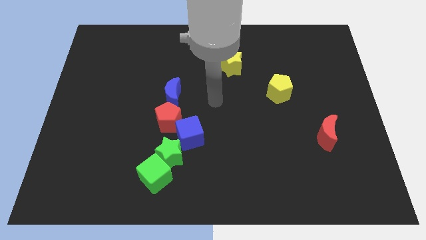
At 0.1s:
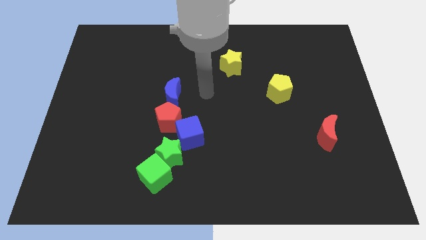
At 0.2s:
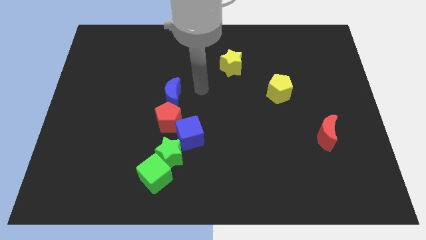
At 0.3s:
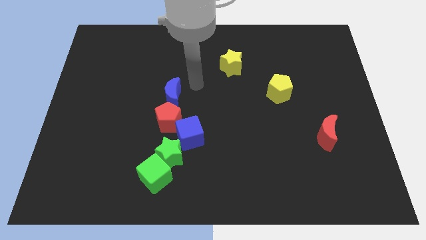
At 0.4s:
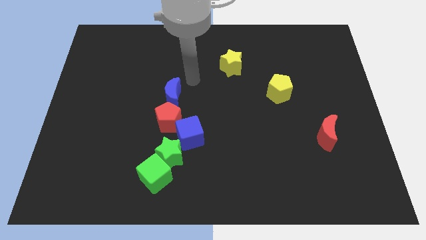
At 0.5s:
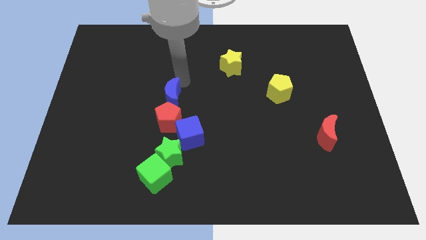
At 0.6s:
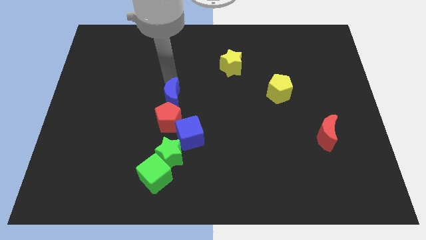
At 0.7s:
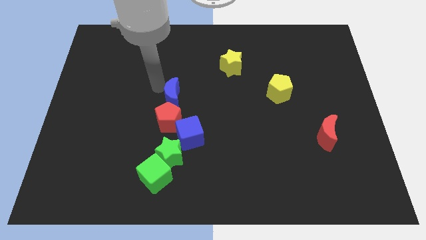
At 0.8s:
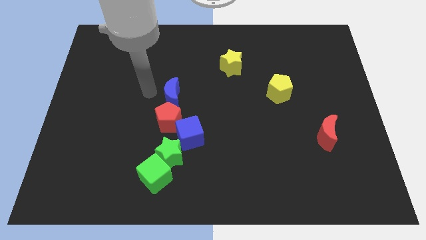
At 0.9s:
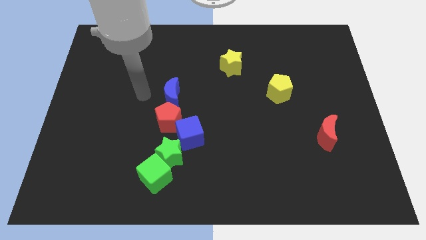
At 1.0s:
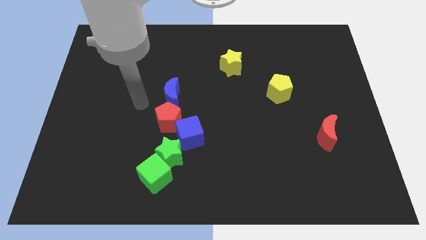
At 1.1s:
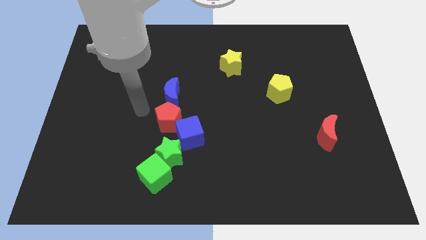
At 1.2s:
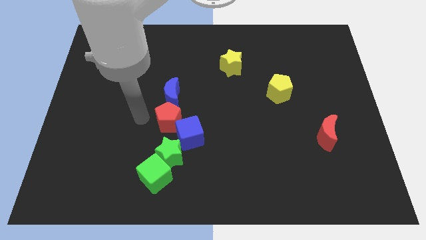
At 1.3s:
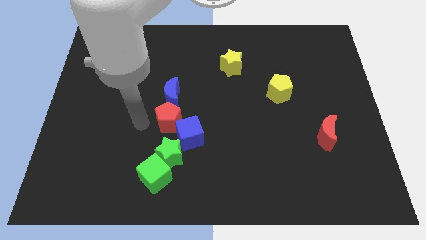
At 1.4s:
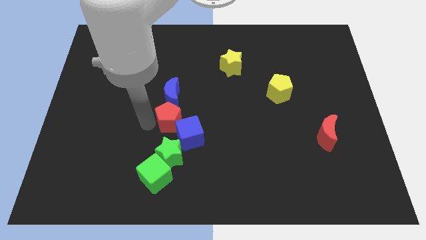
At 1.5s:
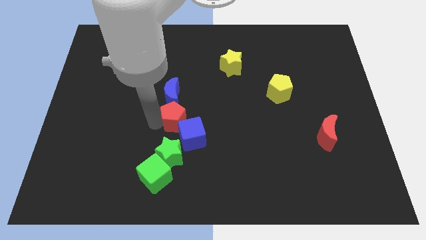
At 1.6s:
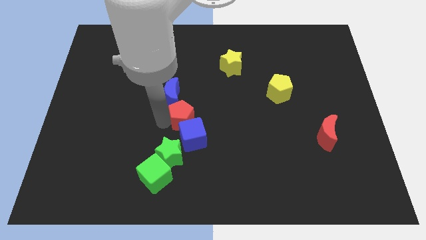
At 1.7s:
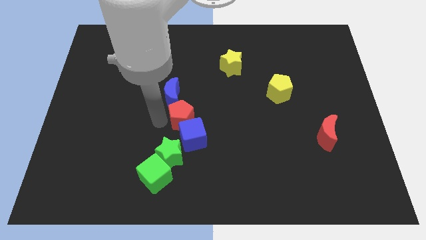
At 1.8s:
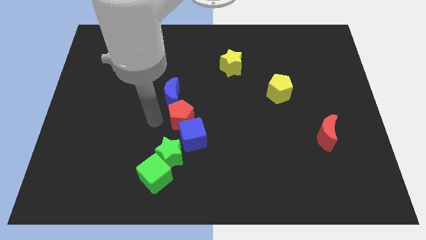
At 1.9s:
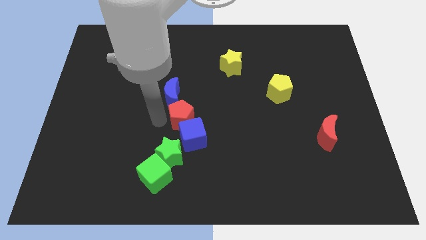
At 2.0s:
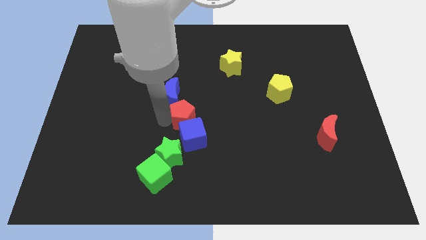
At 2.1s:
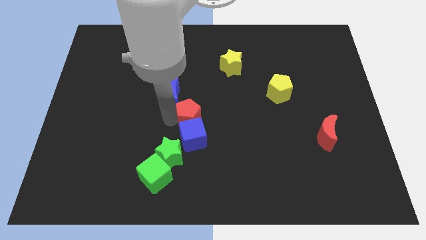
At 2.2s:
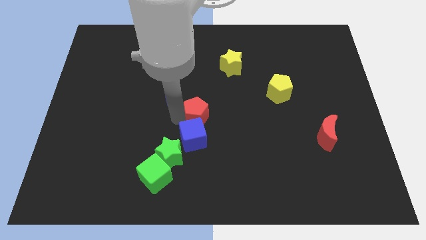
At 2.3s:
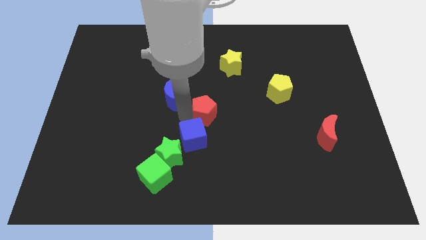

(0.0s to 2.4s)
move the red pentagon right a little

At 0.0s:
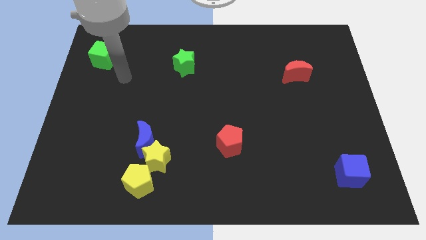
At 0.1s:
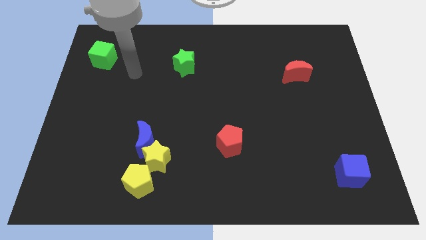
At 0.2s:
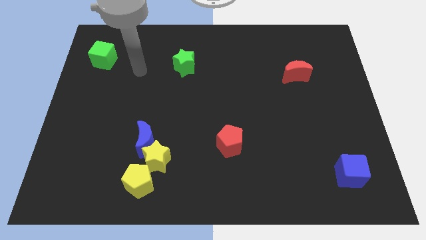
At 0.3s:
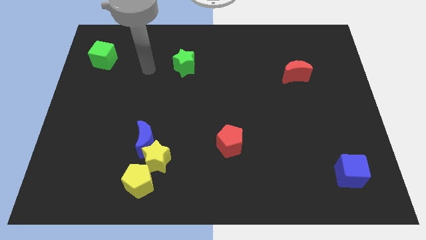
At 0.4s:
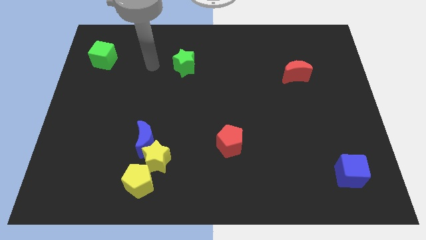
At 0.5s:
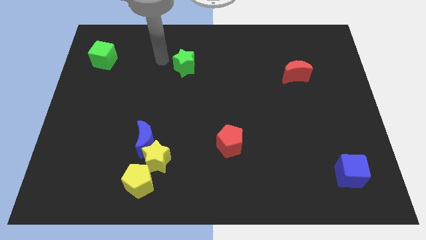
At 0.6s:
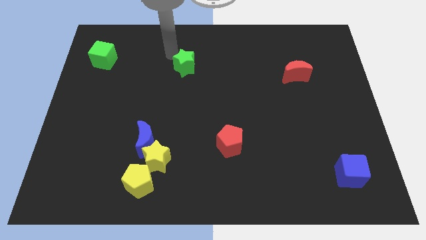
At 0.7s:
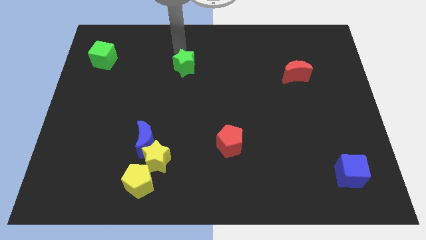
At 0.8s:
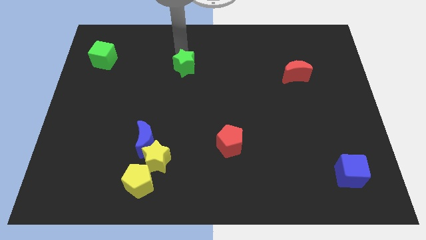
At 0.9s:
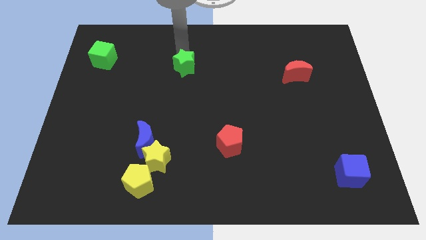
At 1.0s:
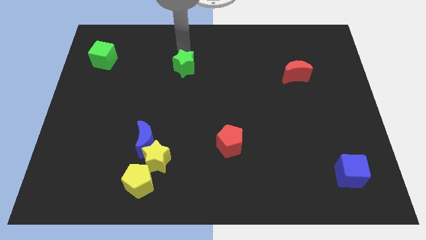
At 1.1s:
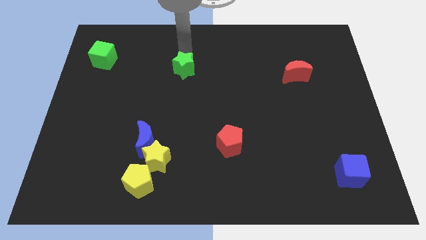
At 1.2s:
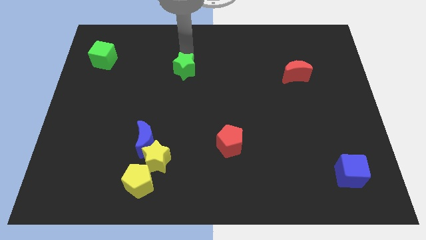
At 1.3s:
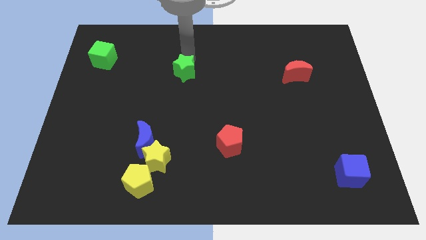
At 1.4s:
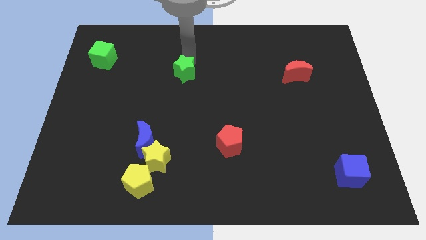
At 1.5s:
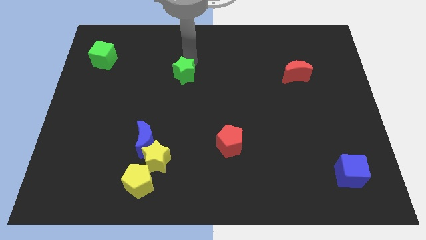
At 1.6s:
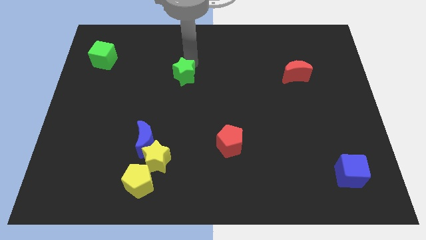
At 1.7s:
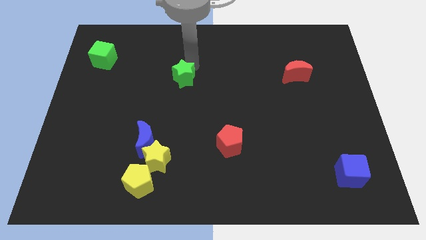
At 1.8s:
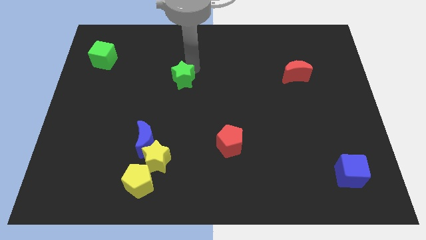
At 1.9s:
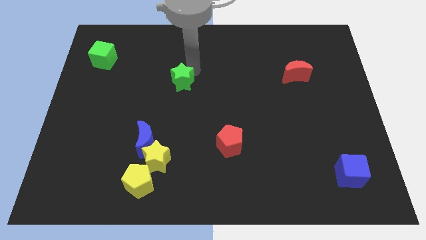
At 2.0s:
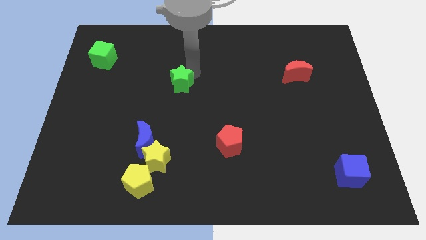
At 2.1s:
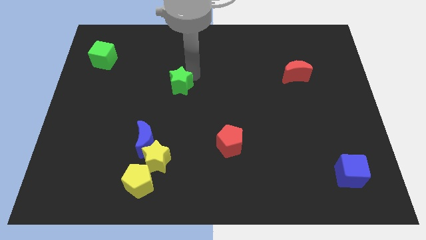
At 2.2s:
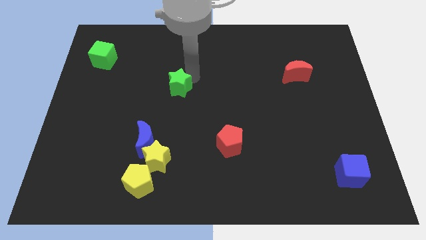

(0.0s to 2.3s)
slightly slide the green star down

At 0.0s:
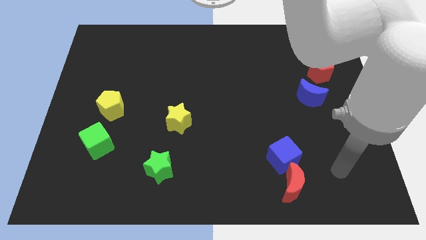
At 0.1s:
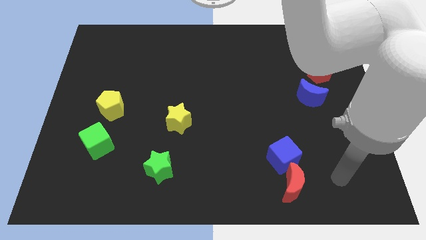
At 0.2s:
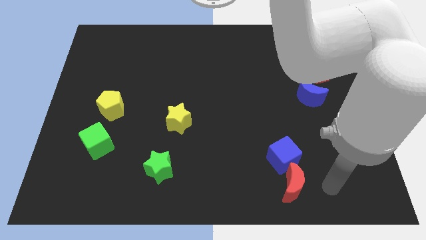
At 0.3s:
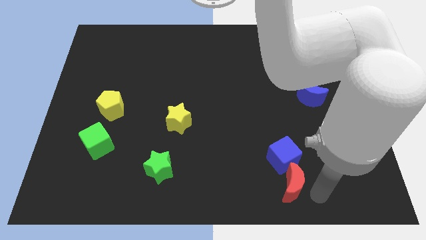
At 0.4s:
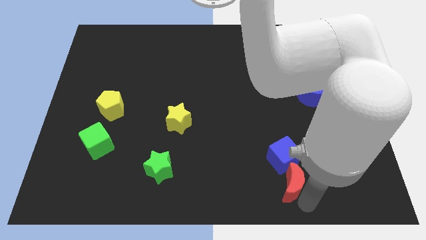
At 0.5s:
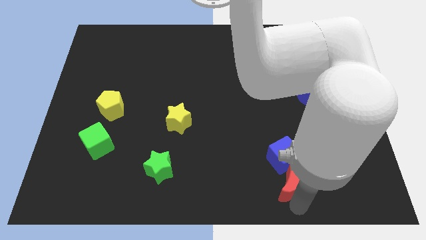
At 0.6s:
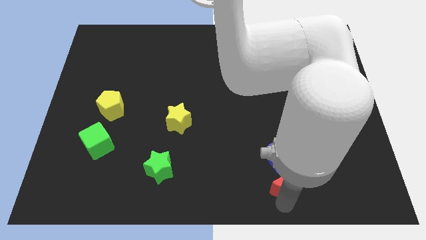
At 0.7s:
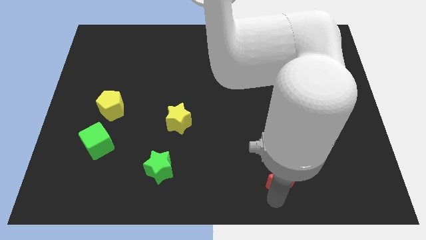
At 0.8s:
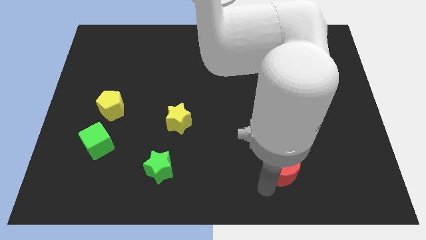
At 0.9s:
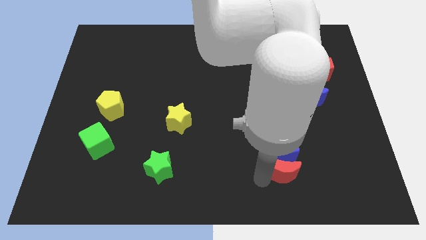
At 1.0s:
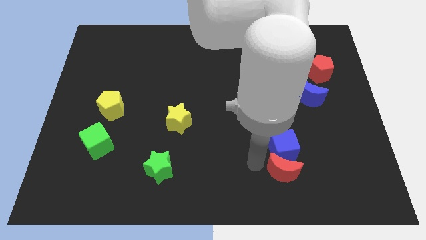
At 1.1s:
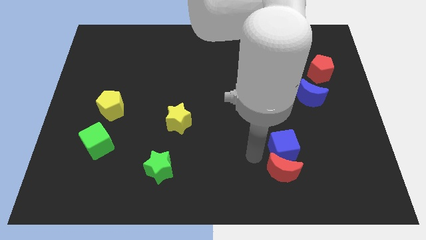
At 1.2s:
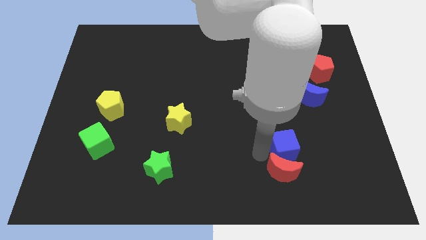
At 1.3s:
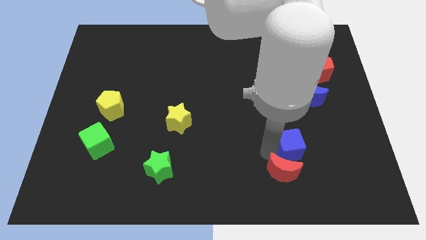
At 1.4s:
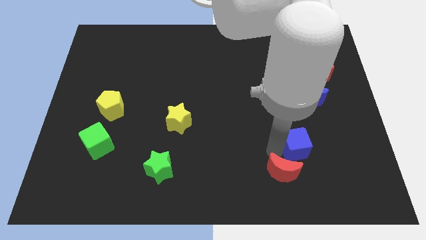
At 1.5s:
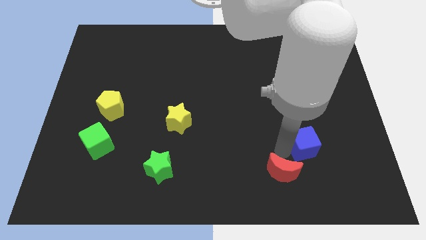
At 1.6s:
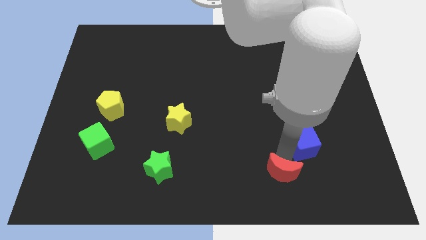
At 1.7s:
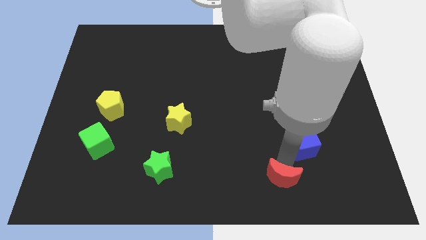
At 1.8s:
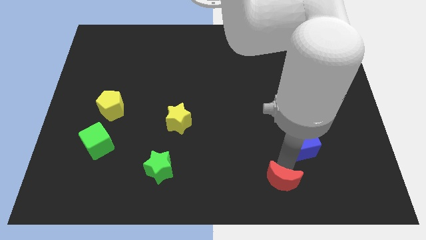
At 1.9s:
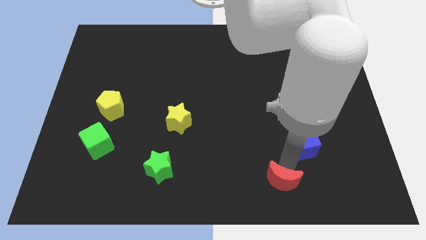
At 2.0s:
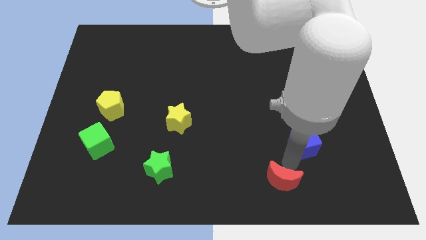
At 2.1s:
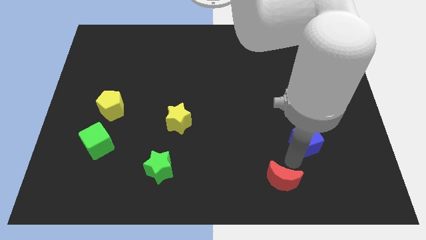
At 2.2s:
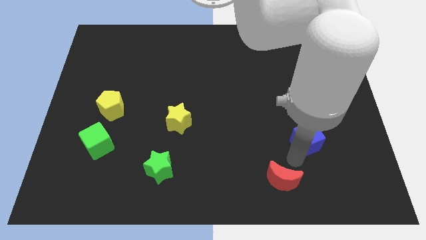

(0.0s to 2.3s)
slightly move the blue cube up and to the right

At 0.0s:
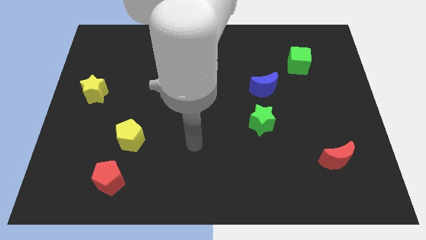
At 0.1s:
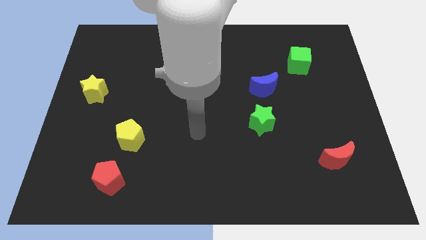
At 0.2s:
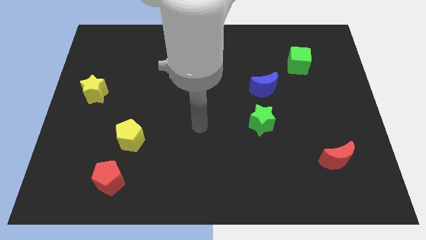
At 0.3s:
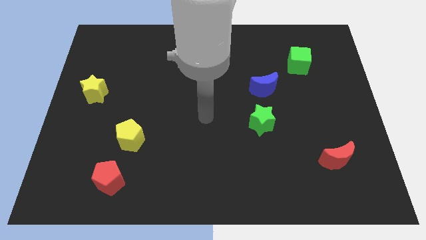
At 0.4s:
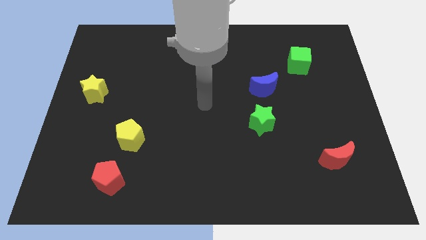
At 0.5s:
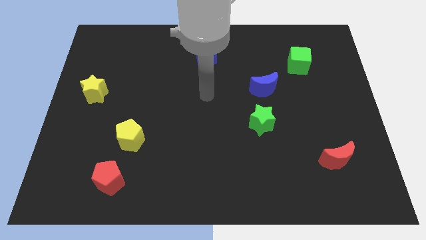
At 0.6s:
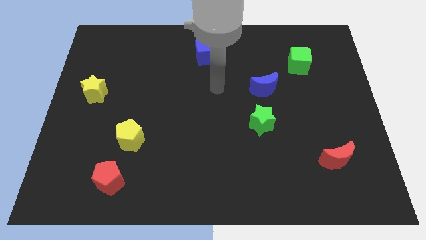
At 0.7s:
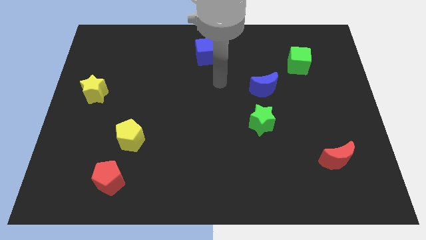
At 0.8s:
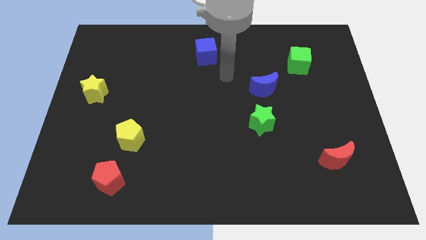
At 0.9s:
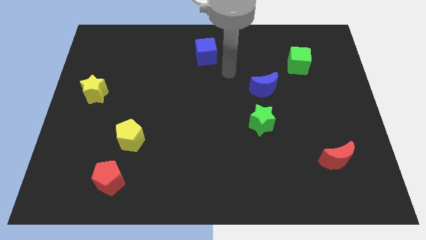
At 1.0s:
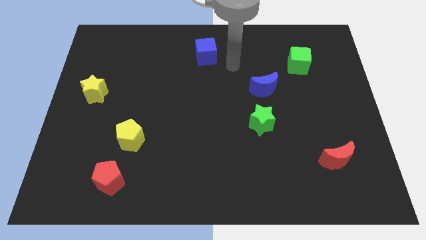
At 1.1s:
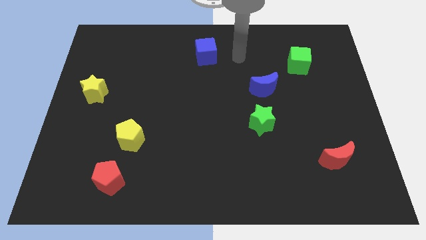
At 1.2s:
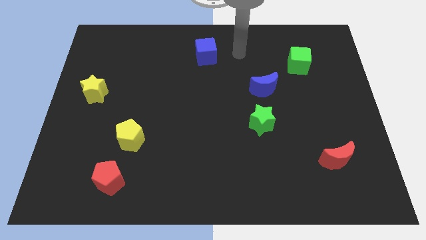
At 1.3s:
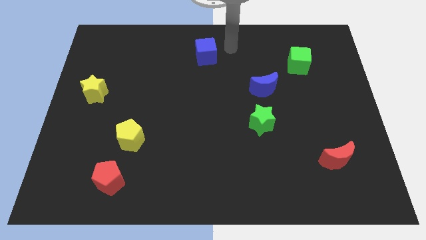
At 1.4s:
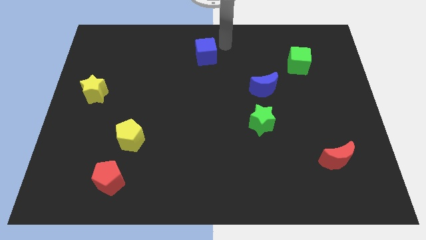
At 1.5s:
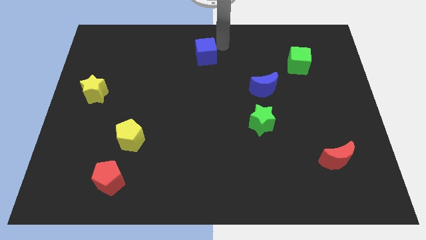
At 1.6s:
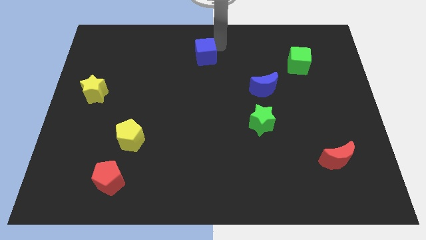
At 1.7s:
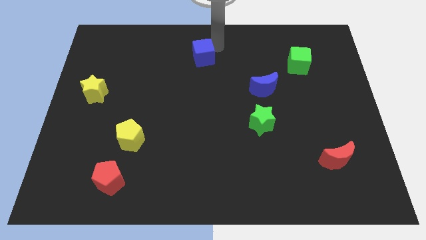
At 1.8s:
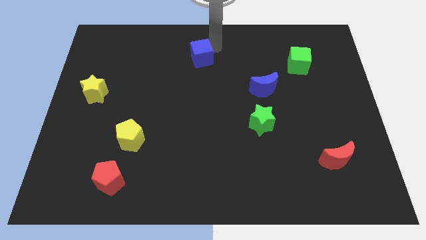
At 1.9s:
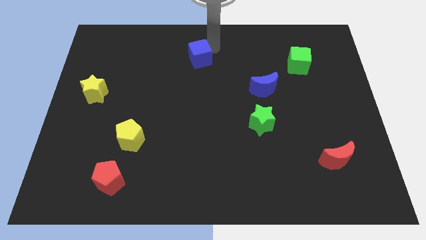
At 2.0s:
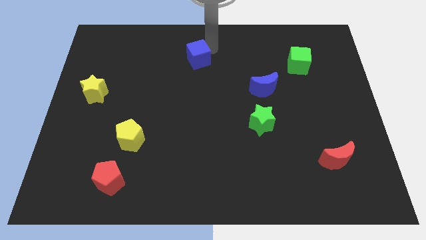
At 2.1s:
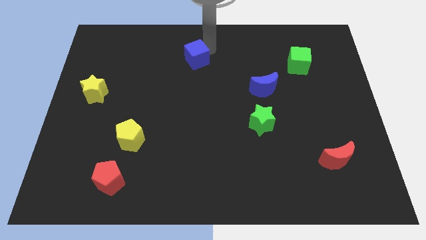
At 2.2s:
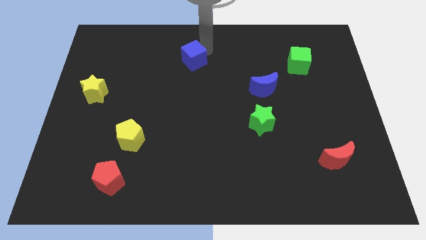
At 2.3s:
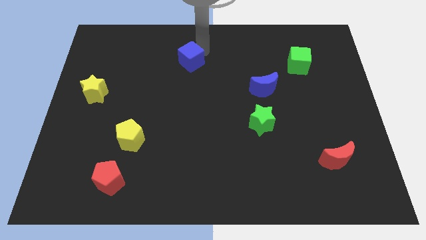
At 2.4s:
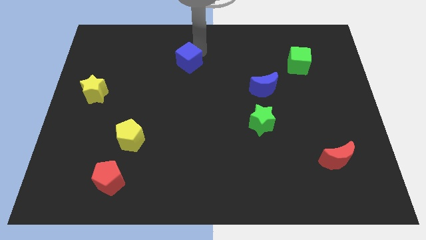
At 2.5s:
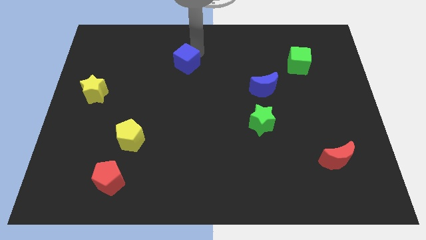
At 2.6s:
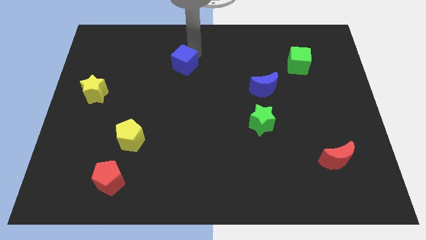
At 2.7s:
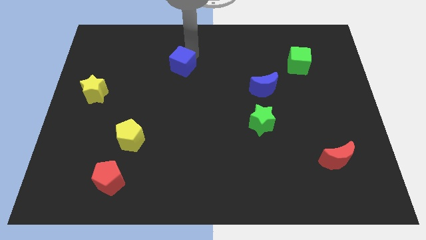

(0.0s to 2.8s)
move the blue cube a little down and then left
